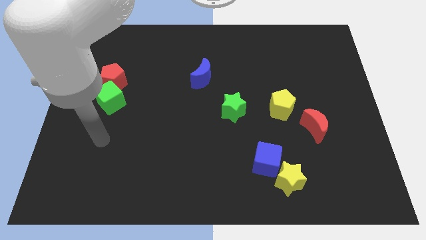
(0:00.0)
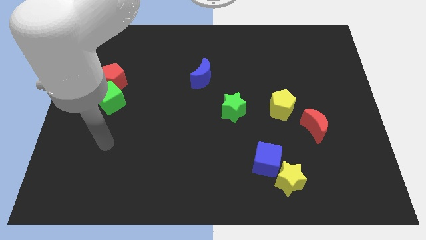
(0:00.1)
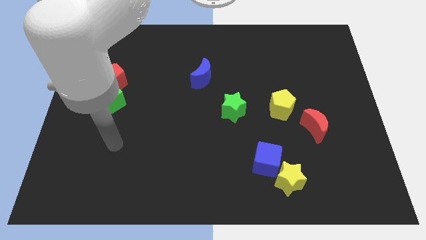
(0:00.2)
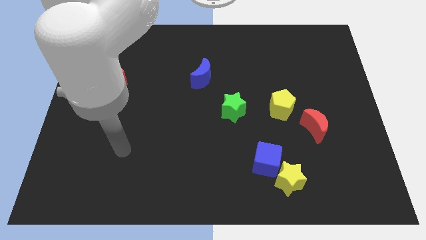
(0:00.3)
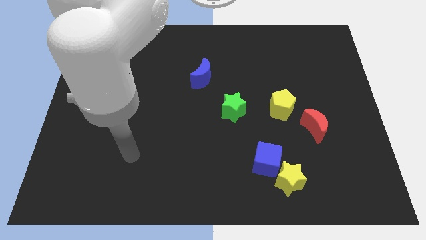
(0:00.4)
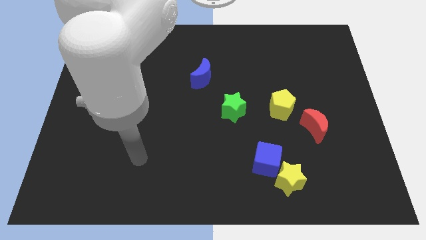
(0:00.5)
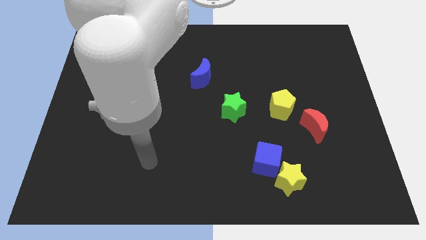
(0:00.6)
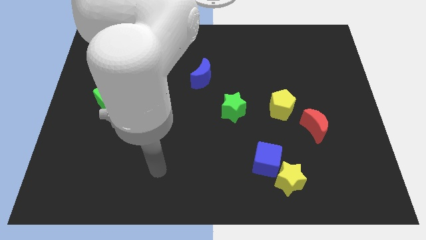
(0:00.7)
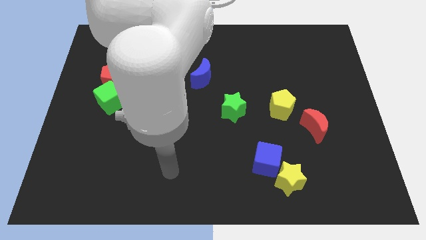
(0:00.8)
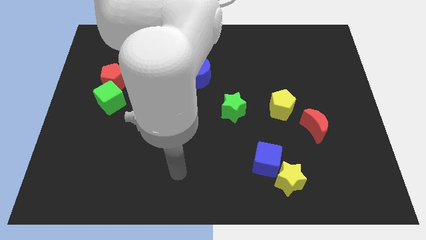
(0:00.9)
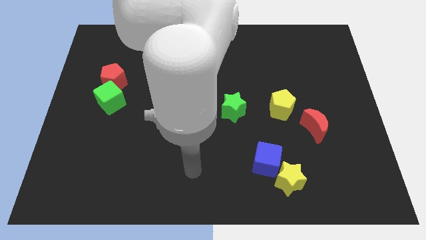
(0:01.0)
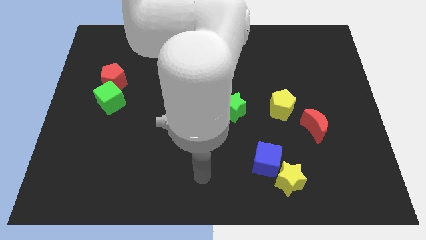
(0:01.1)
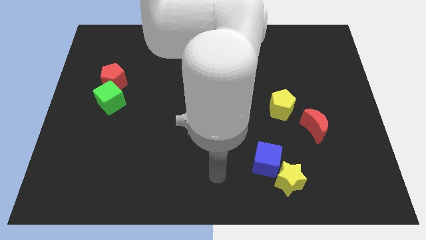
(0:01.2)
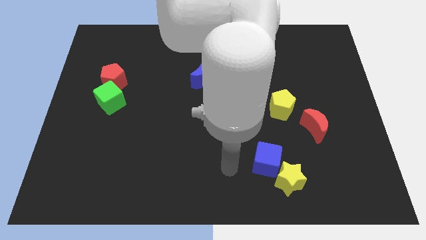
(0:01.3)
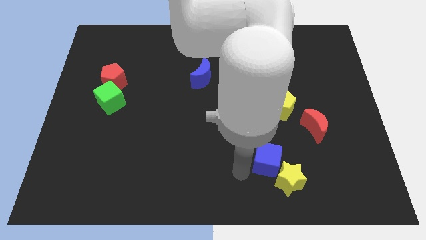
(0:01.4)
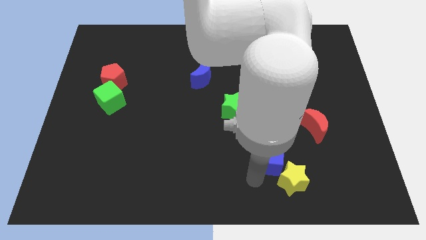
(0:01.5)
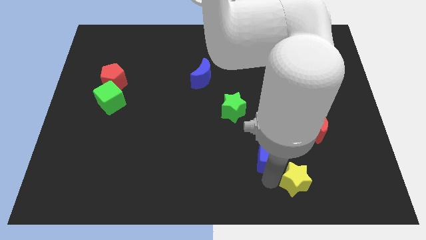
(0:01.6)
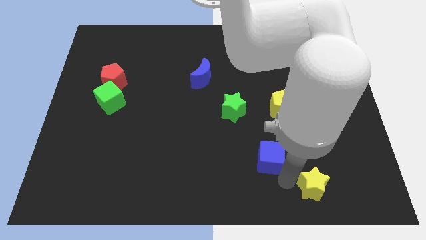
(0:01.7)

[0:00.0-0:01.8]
separate the blue cube from the yellow star

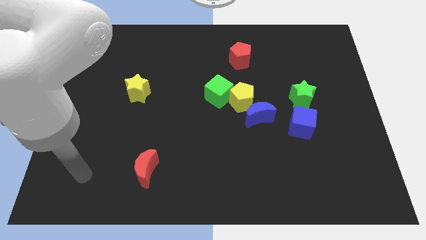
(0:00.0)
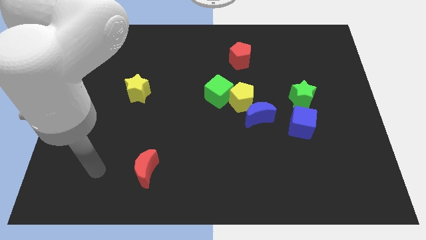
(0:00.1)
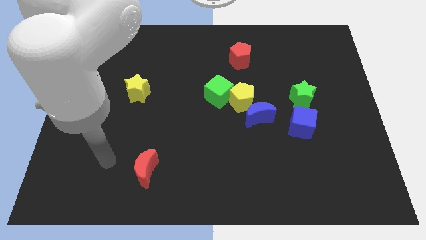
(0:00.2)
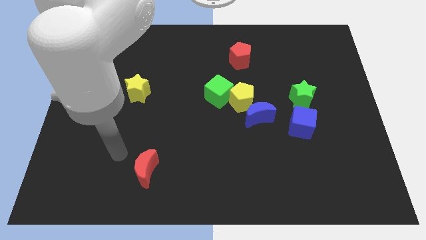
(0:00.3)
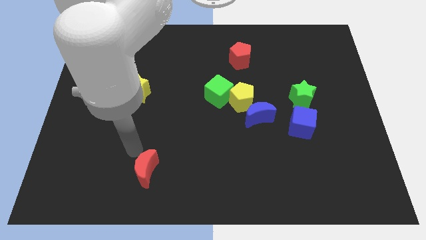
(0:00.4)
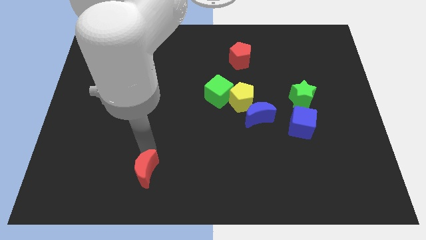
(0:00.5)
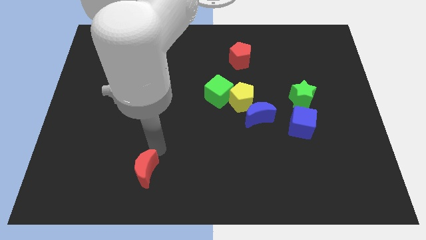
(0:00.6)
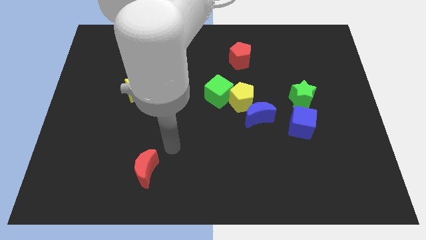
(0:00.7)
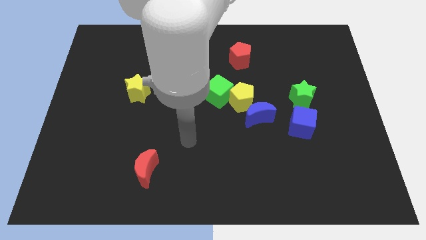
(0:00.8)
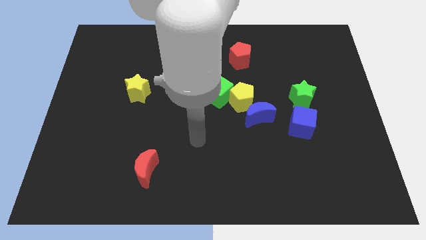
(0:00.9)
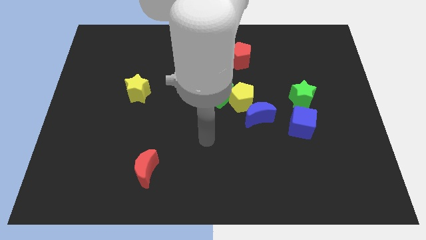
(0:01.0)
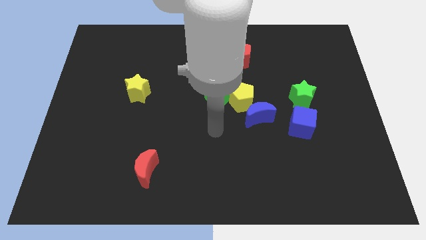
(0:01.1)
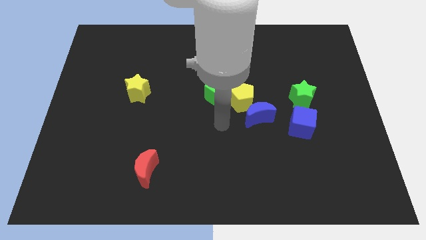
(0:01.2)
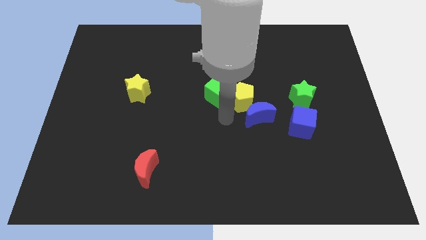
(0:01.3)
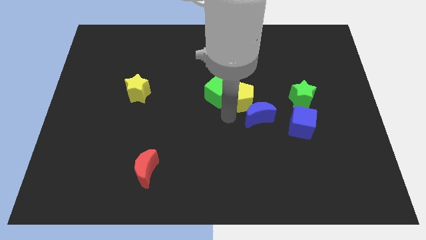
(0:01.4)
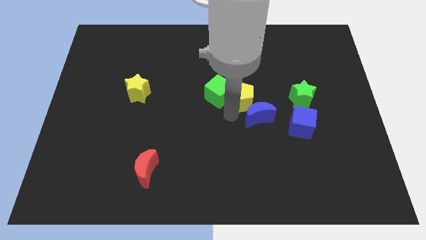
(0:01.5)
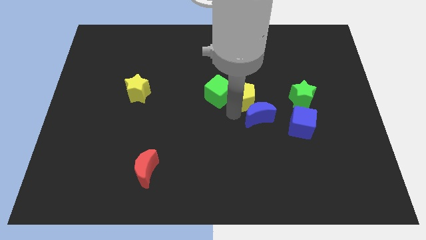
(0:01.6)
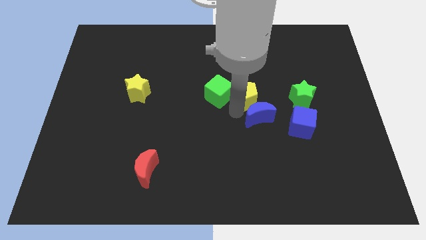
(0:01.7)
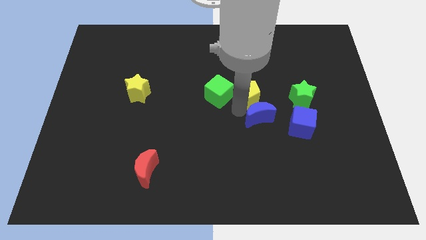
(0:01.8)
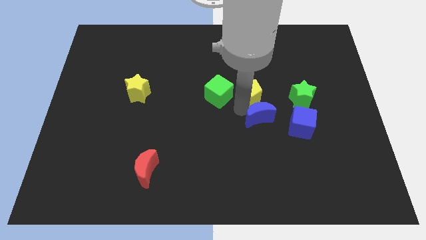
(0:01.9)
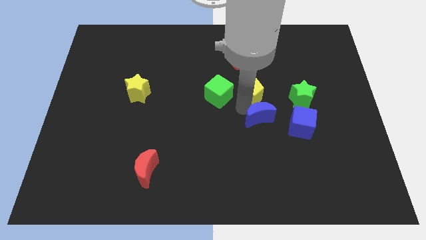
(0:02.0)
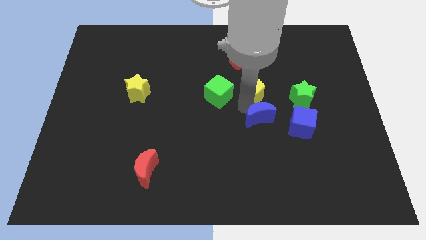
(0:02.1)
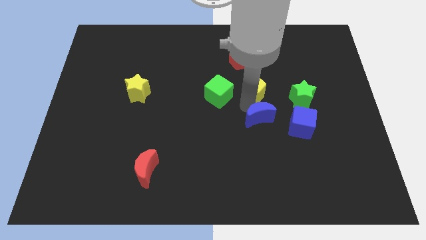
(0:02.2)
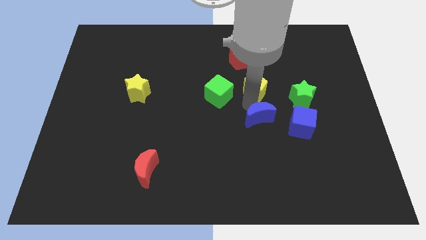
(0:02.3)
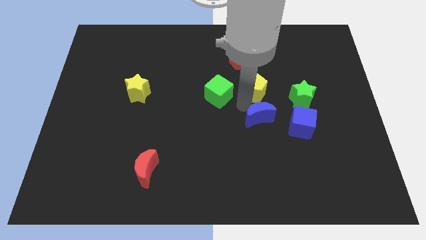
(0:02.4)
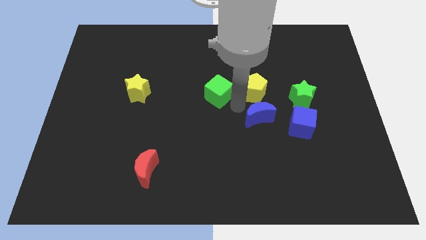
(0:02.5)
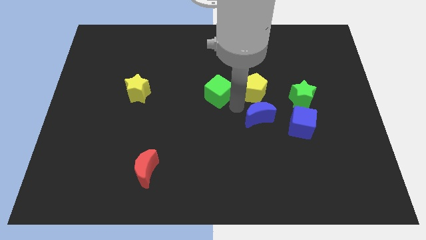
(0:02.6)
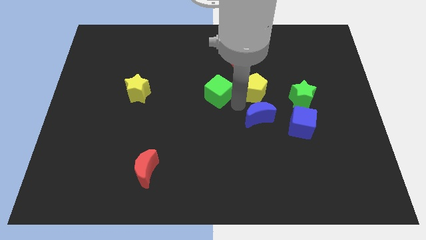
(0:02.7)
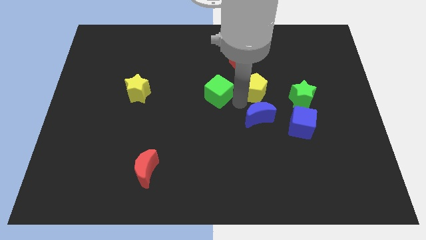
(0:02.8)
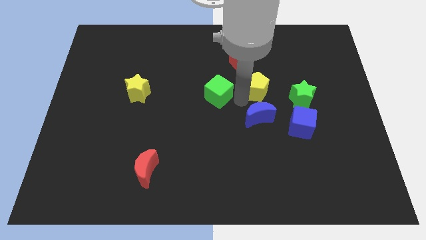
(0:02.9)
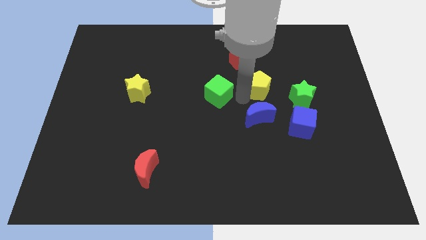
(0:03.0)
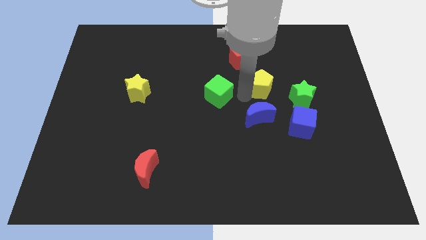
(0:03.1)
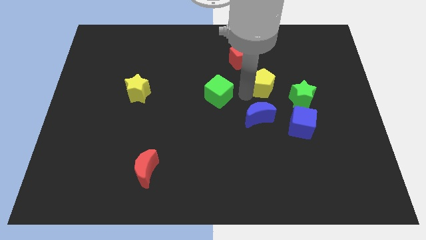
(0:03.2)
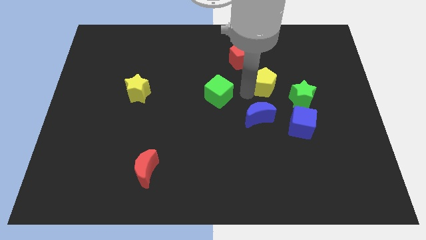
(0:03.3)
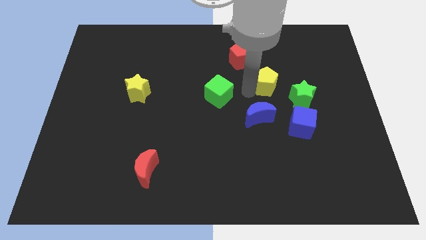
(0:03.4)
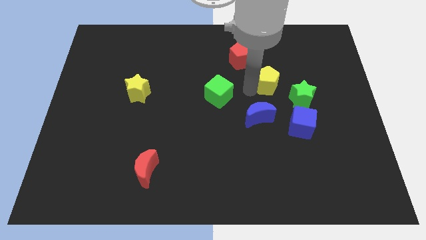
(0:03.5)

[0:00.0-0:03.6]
pull the yellow pentagon apart from the blue moon and green cube

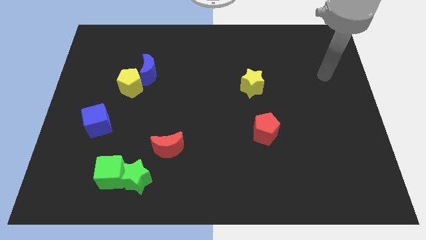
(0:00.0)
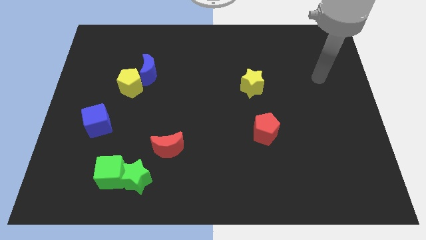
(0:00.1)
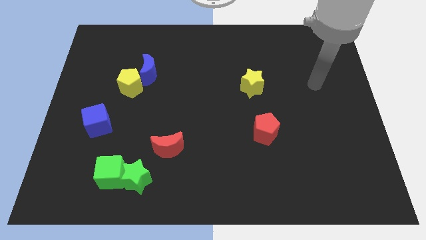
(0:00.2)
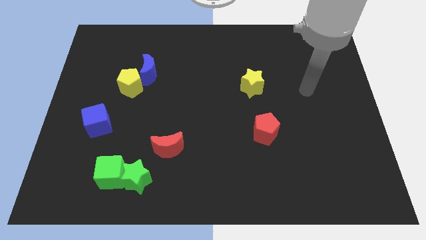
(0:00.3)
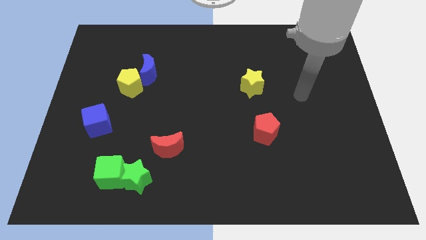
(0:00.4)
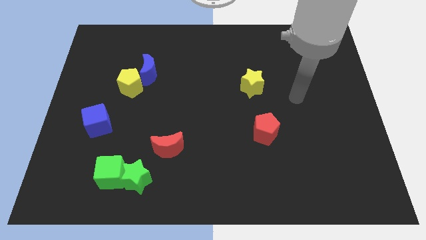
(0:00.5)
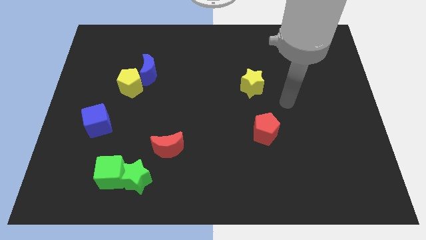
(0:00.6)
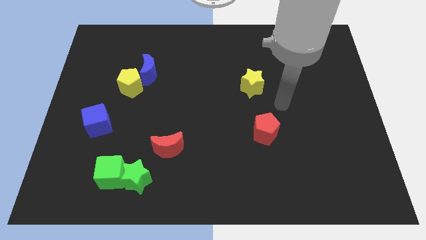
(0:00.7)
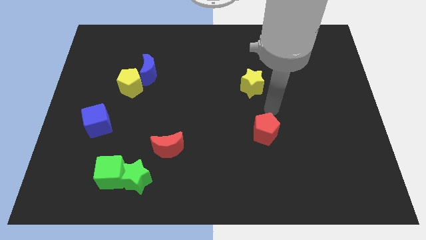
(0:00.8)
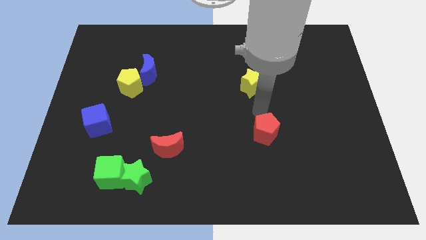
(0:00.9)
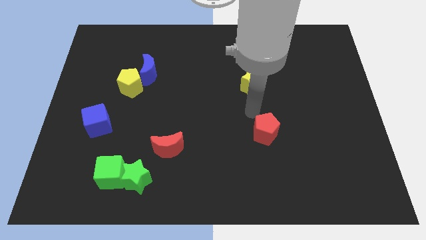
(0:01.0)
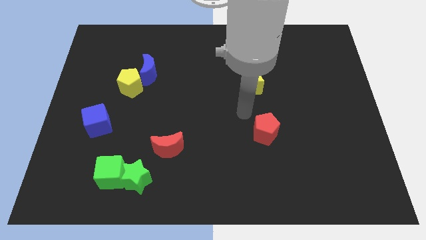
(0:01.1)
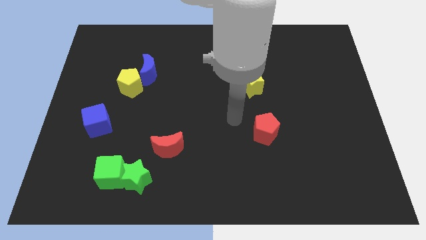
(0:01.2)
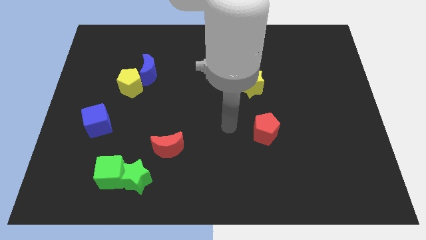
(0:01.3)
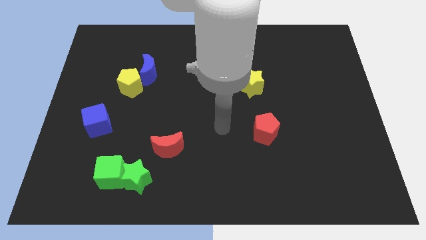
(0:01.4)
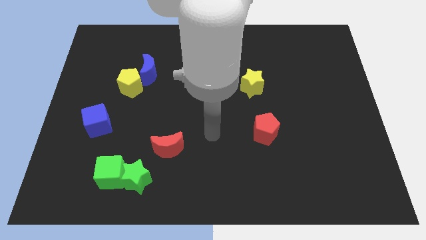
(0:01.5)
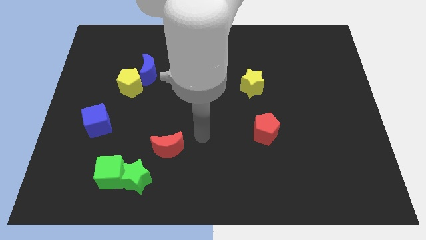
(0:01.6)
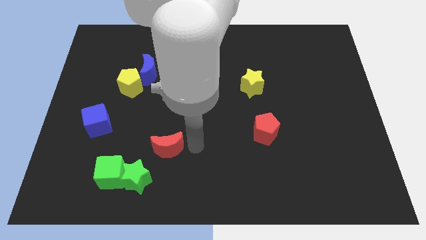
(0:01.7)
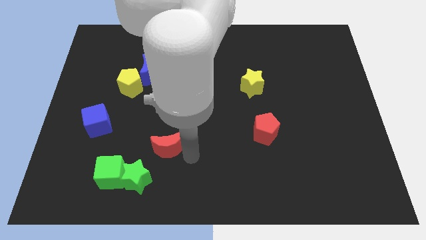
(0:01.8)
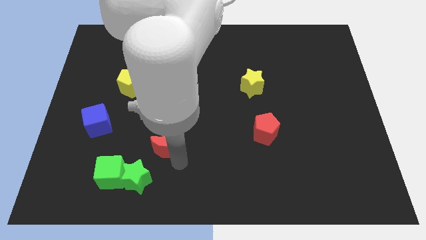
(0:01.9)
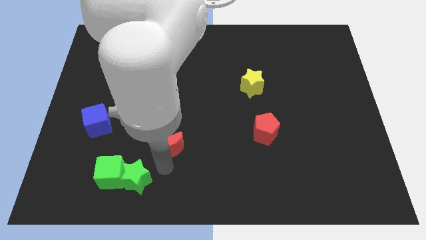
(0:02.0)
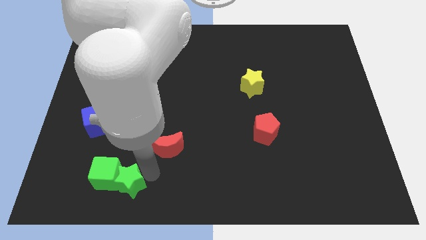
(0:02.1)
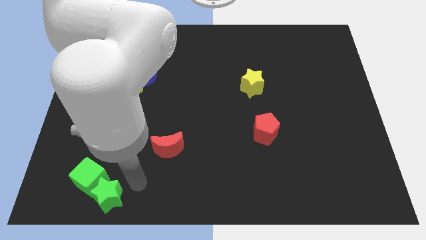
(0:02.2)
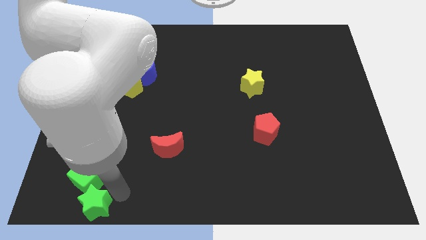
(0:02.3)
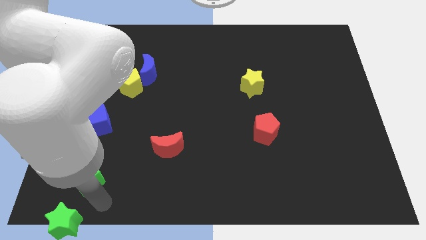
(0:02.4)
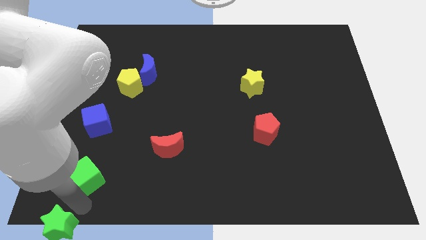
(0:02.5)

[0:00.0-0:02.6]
pull the green cube apart from the green star

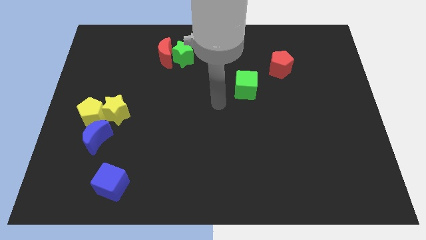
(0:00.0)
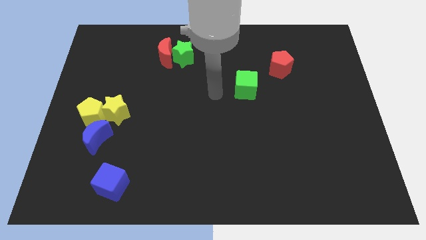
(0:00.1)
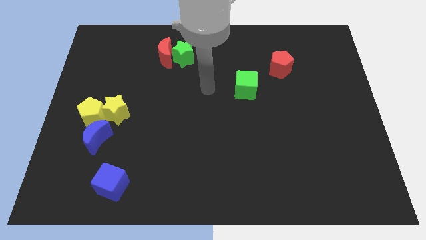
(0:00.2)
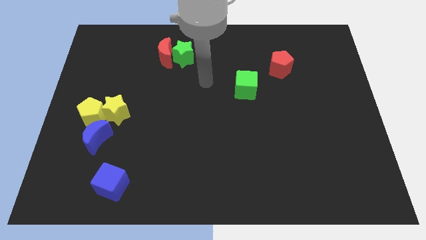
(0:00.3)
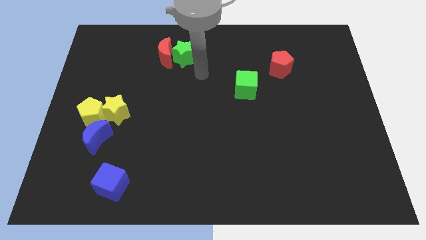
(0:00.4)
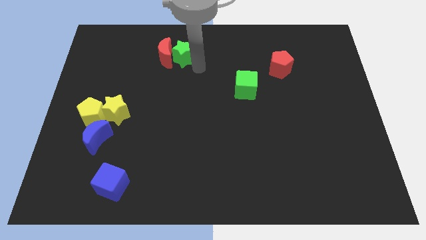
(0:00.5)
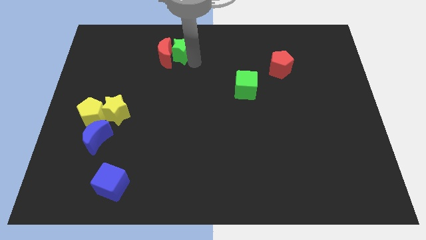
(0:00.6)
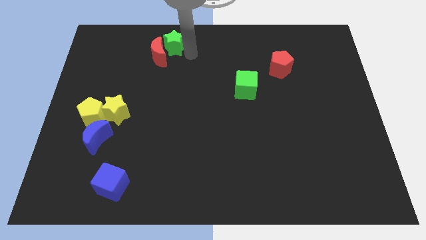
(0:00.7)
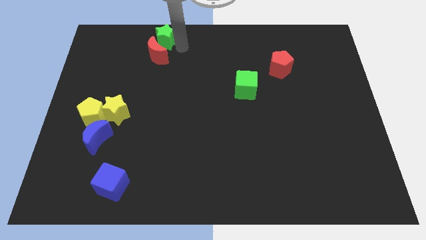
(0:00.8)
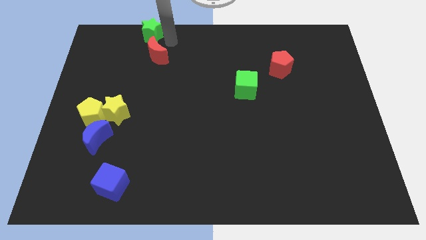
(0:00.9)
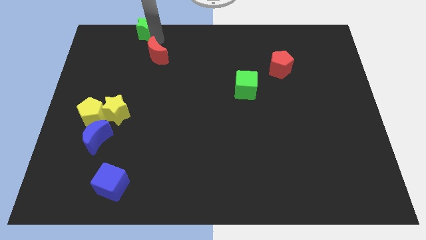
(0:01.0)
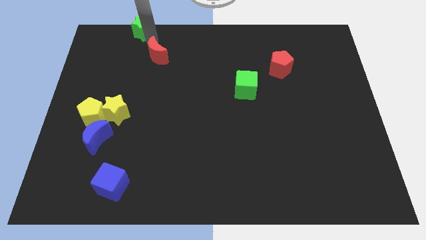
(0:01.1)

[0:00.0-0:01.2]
move the red moon away from the green star

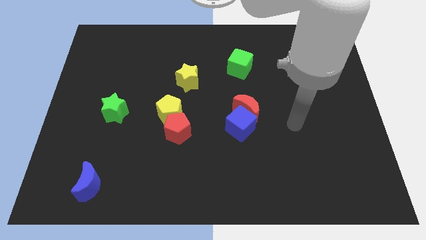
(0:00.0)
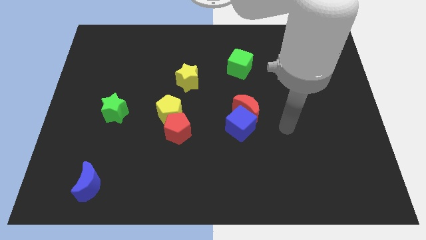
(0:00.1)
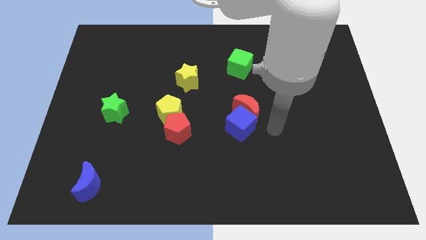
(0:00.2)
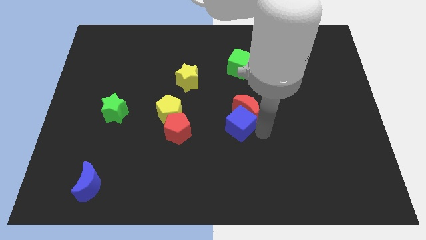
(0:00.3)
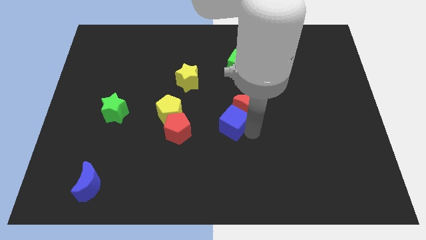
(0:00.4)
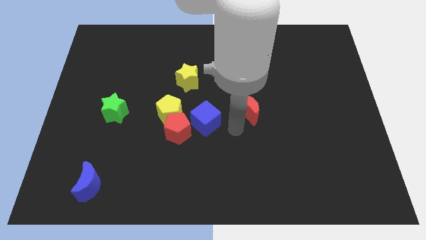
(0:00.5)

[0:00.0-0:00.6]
pull the red moon apart from the blue cube
